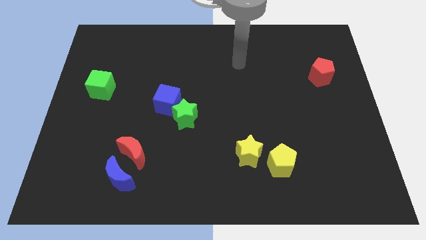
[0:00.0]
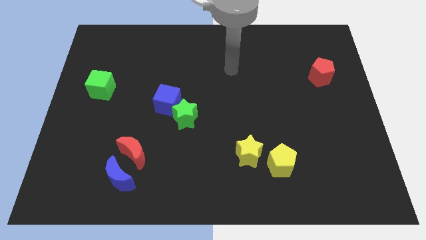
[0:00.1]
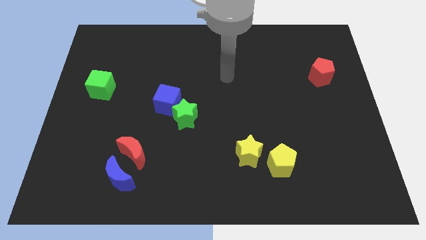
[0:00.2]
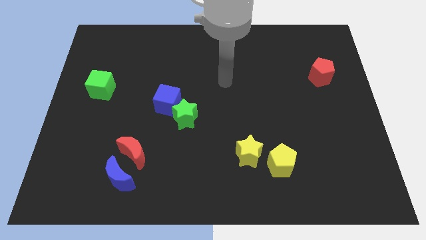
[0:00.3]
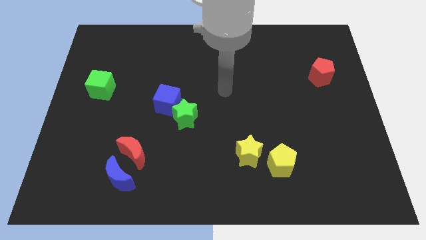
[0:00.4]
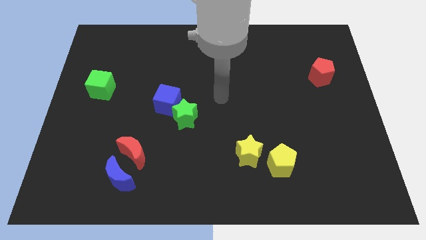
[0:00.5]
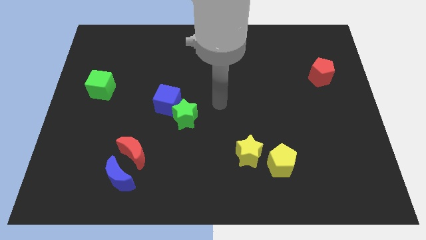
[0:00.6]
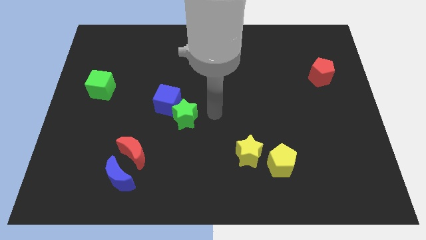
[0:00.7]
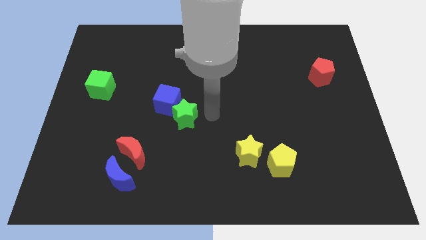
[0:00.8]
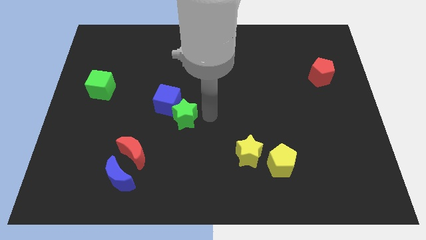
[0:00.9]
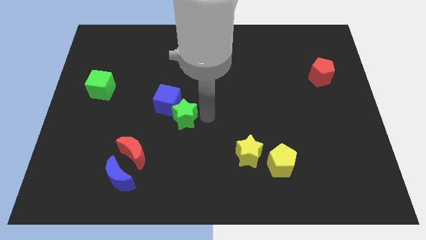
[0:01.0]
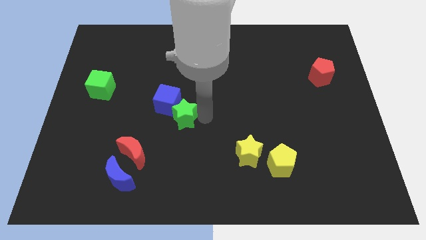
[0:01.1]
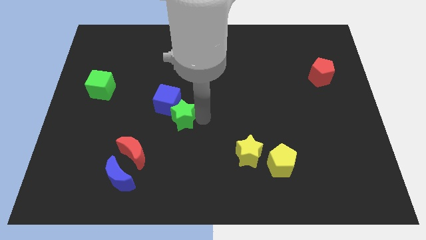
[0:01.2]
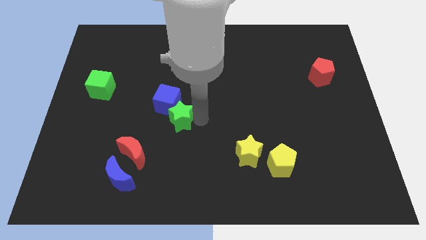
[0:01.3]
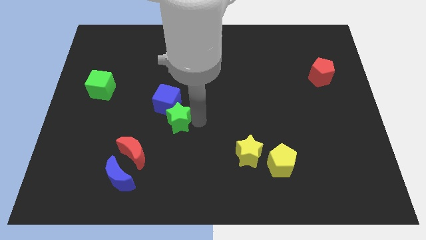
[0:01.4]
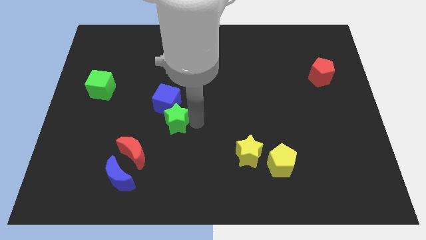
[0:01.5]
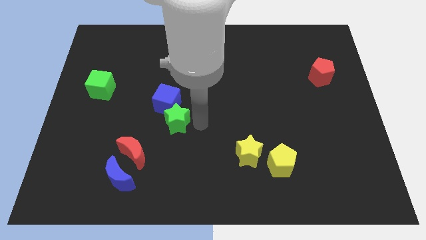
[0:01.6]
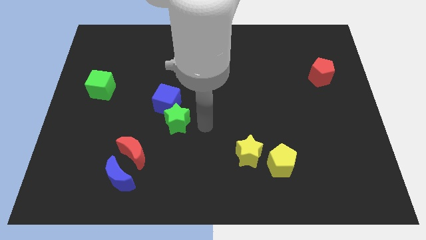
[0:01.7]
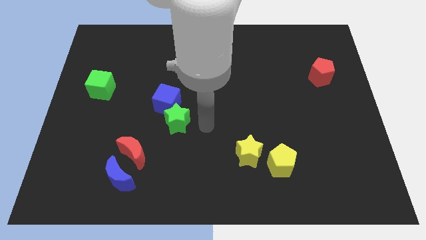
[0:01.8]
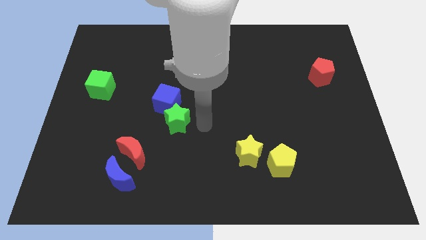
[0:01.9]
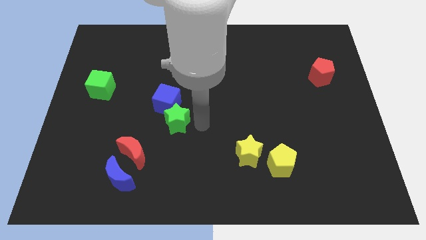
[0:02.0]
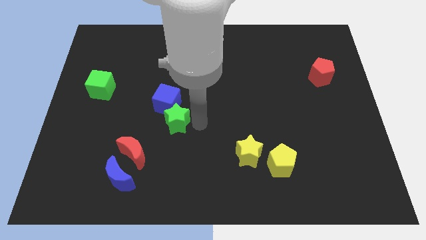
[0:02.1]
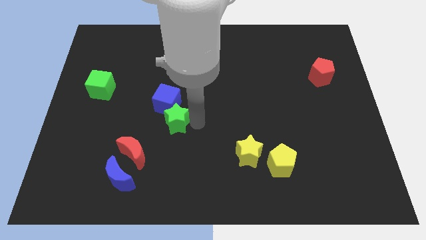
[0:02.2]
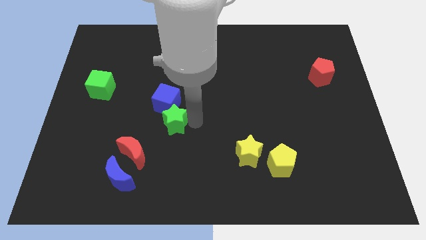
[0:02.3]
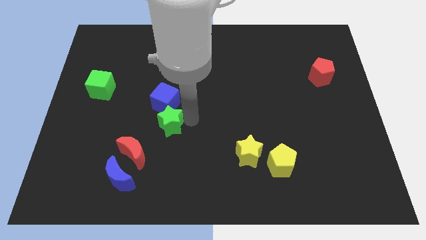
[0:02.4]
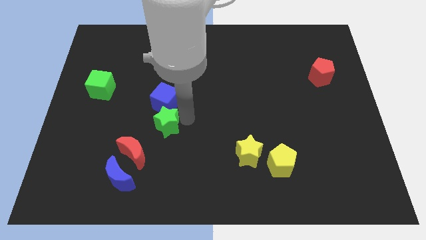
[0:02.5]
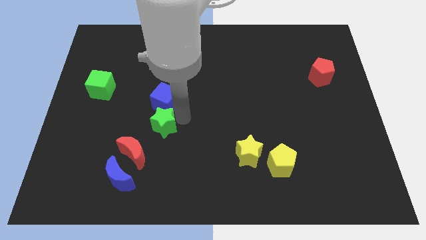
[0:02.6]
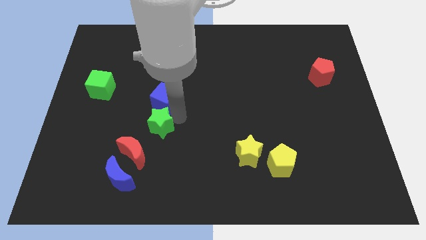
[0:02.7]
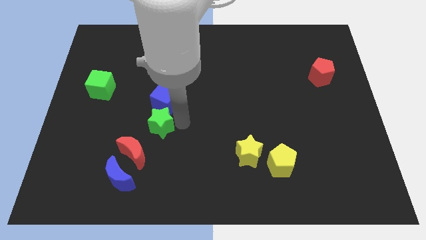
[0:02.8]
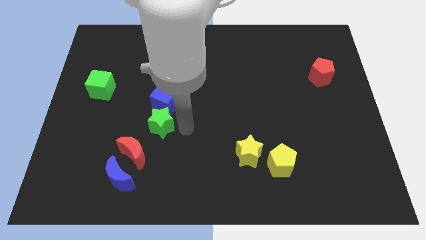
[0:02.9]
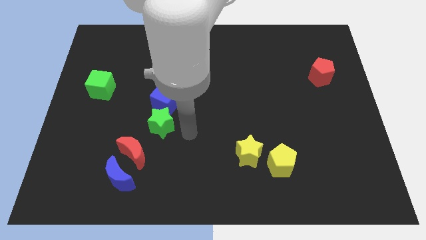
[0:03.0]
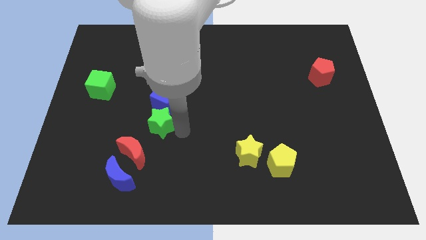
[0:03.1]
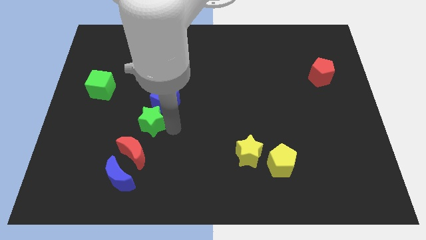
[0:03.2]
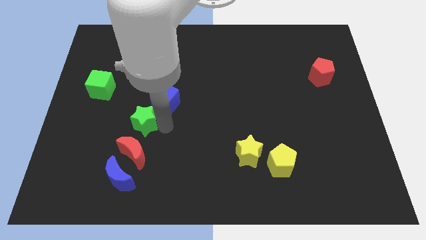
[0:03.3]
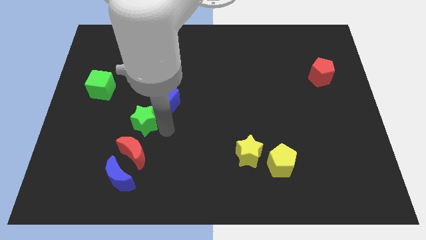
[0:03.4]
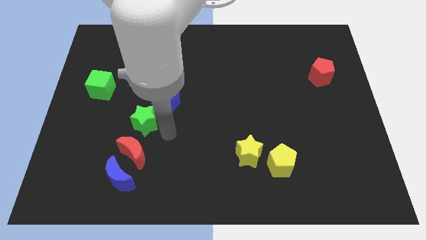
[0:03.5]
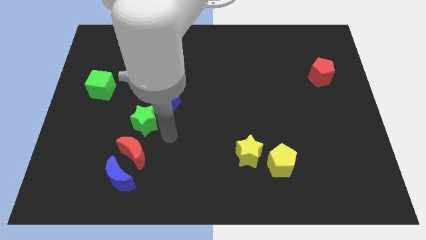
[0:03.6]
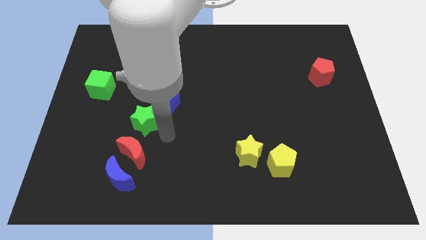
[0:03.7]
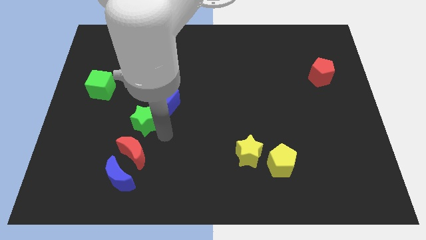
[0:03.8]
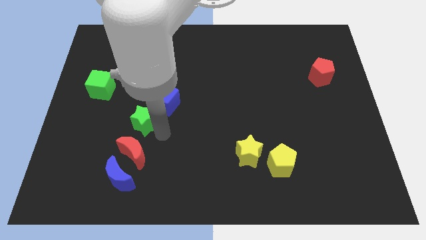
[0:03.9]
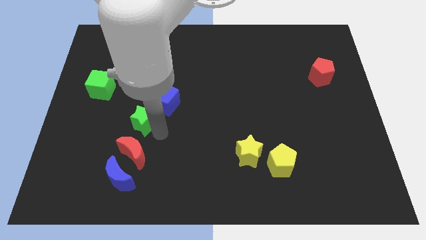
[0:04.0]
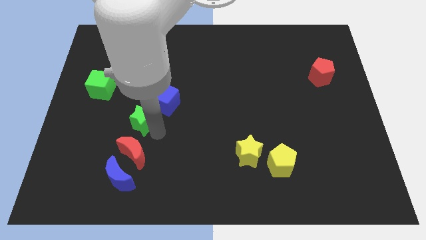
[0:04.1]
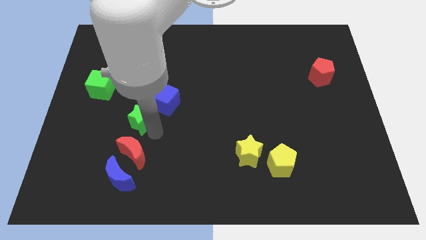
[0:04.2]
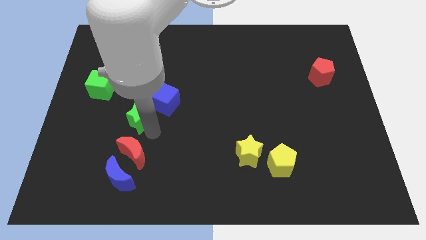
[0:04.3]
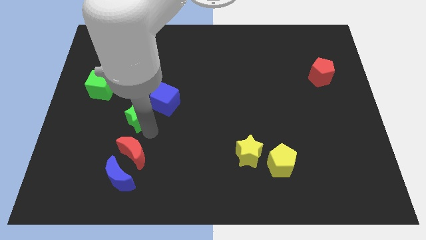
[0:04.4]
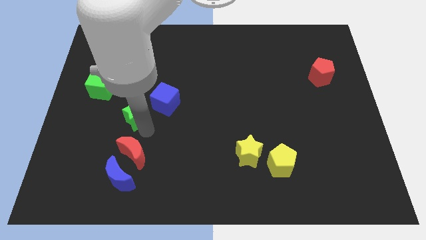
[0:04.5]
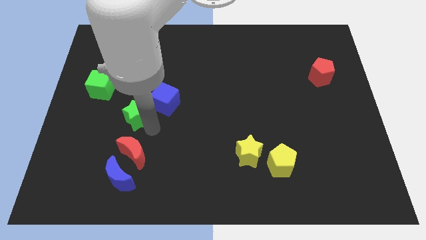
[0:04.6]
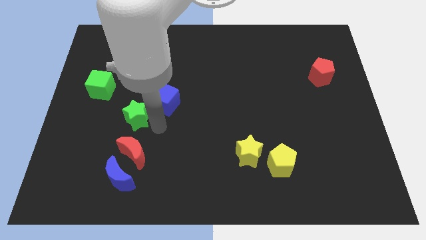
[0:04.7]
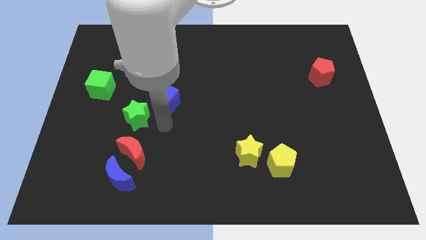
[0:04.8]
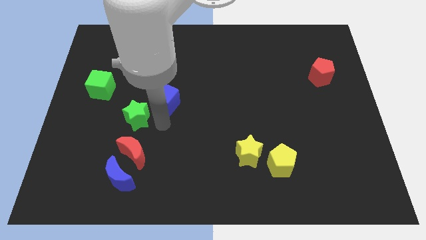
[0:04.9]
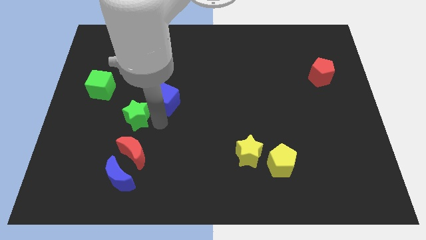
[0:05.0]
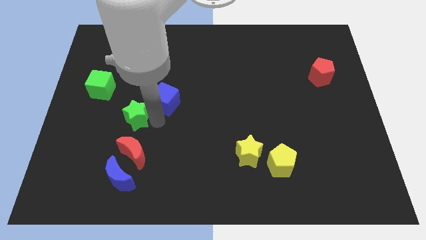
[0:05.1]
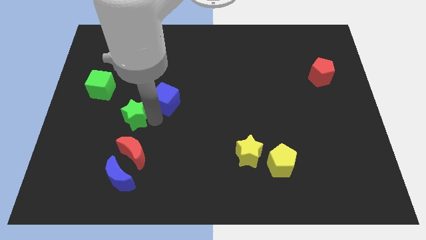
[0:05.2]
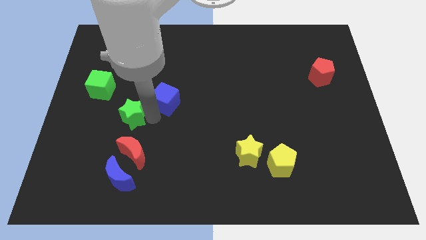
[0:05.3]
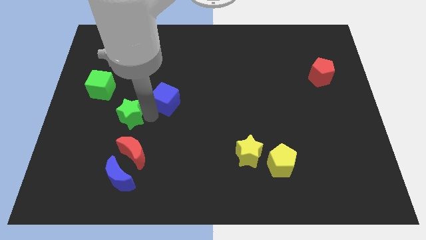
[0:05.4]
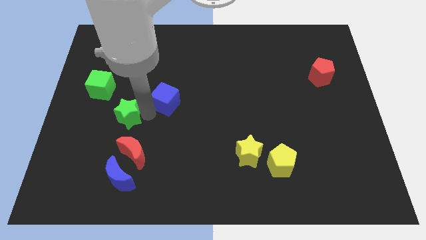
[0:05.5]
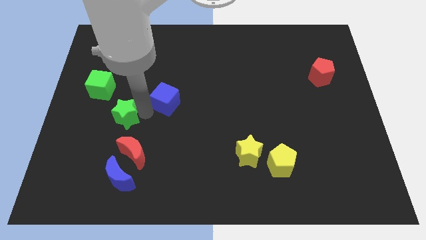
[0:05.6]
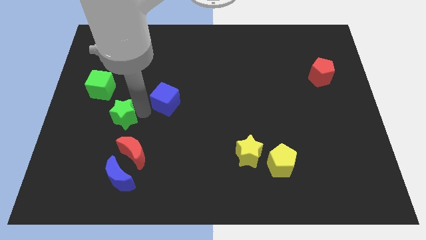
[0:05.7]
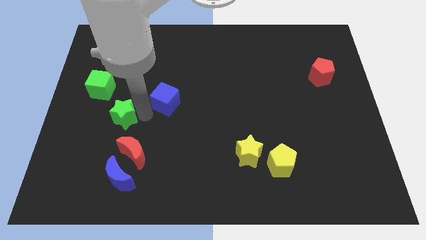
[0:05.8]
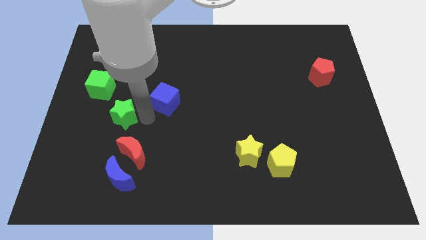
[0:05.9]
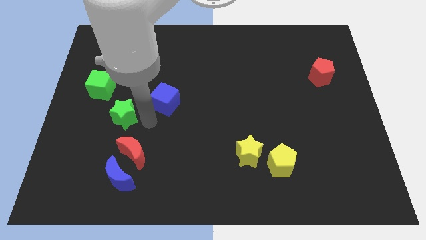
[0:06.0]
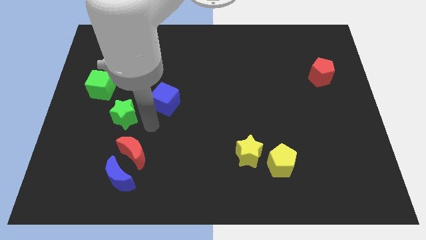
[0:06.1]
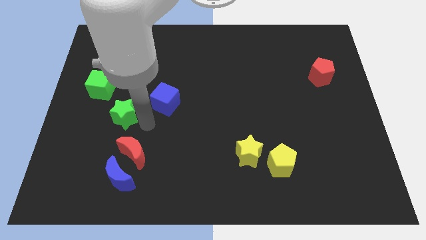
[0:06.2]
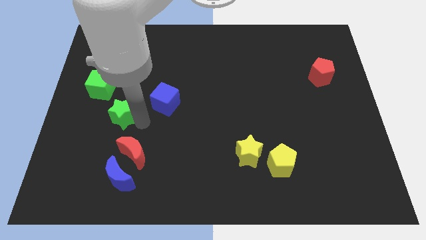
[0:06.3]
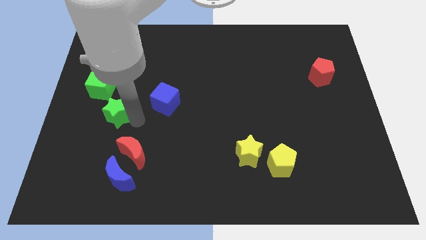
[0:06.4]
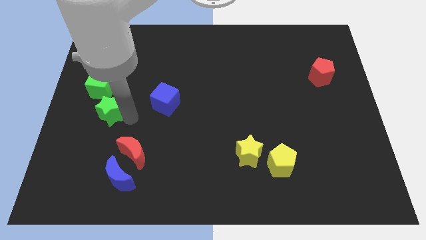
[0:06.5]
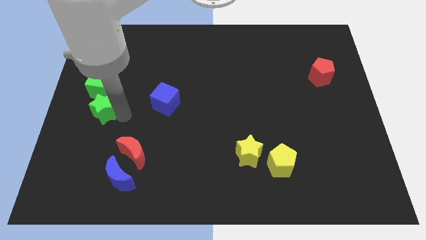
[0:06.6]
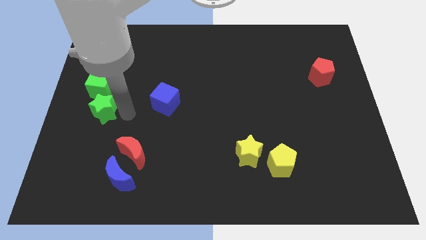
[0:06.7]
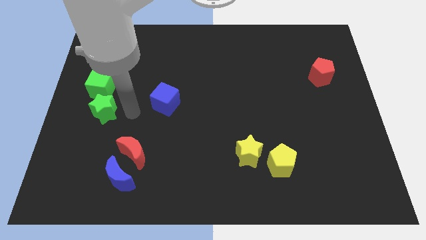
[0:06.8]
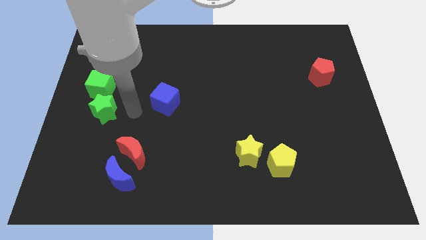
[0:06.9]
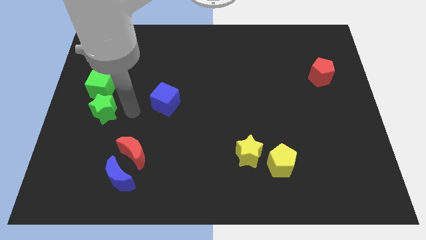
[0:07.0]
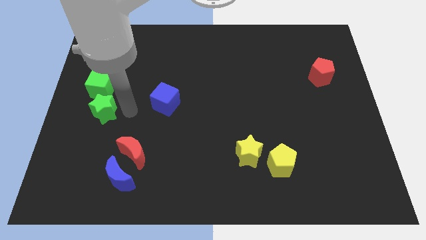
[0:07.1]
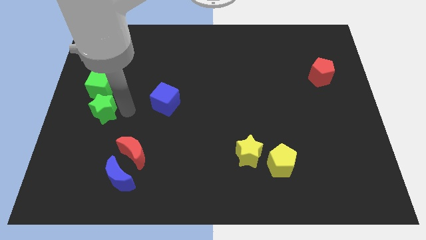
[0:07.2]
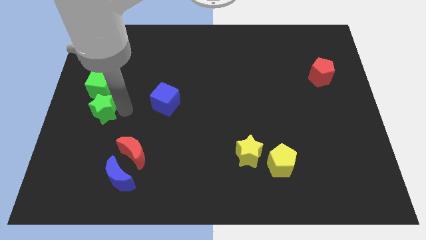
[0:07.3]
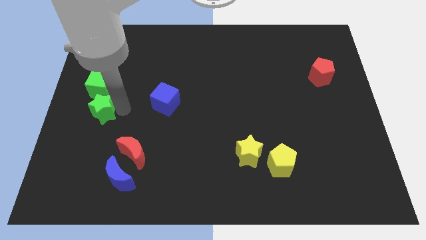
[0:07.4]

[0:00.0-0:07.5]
put the green star to the left side
